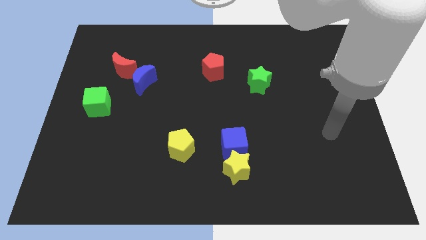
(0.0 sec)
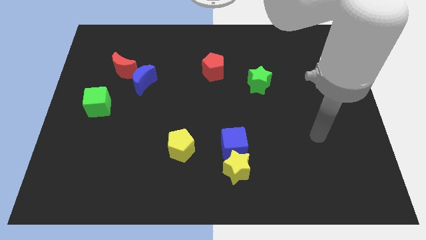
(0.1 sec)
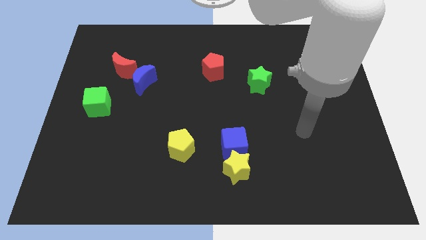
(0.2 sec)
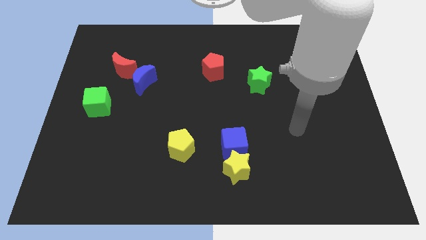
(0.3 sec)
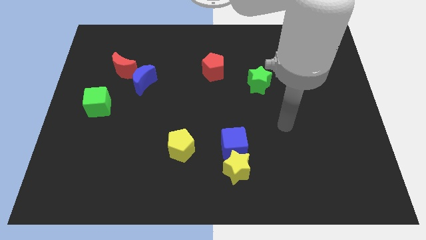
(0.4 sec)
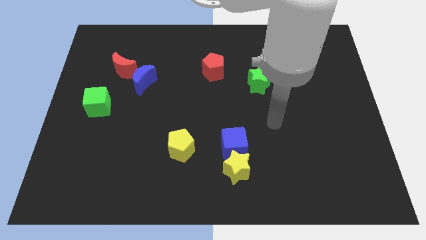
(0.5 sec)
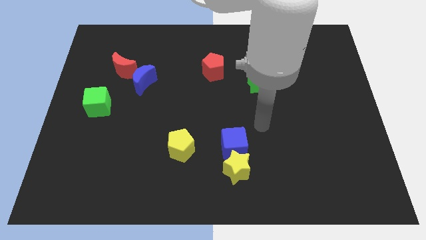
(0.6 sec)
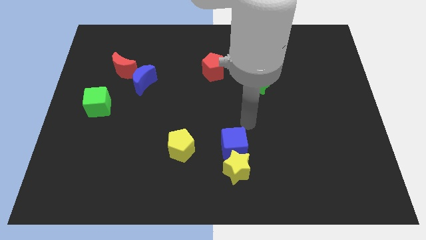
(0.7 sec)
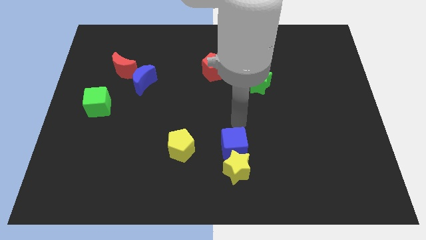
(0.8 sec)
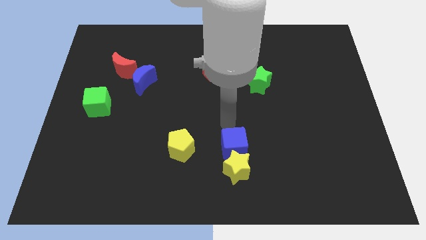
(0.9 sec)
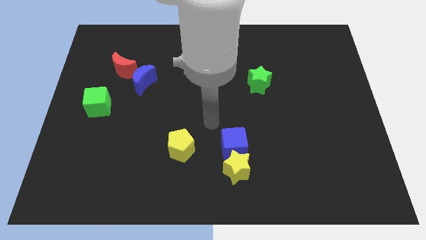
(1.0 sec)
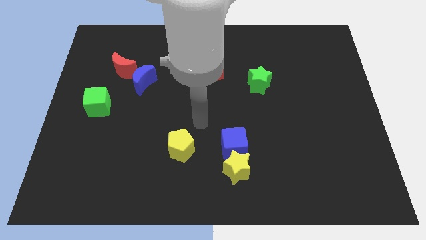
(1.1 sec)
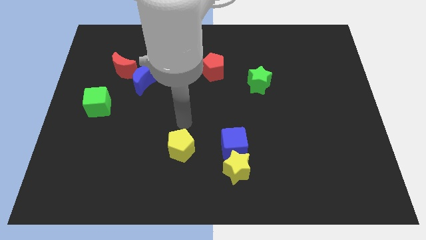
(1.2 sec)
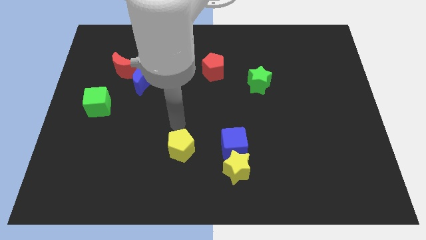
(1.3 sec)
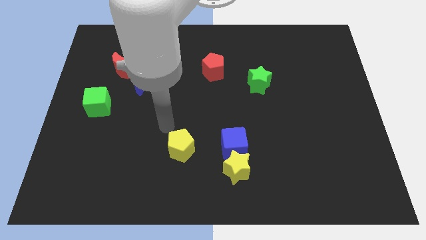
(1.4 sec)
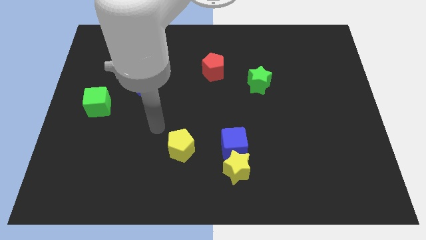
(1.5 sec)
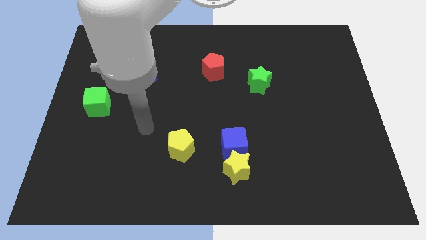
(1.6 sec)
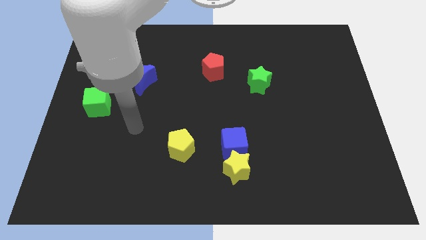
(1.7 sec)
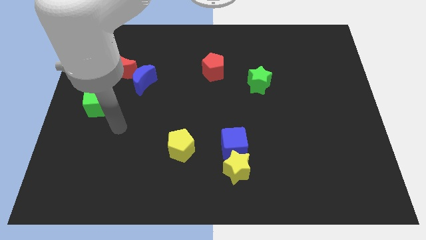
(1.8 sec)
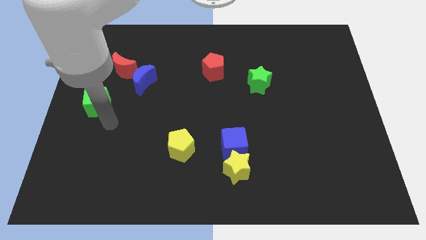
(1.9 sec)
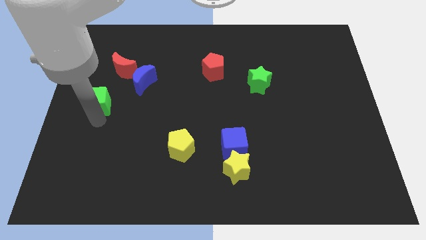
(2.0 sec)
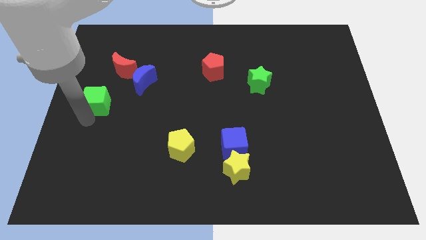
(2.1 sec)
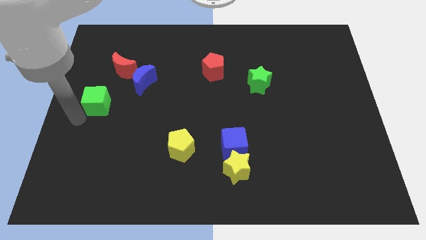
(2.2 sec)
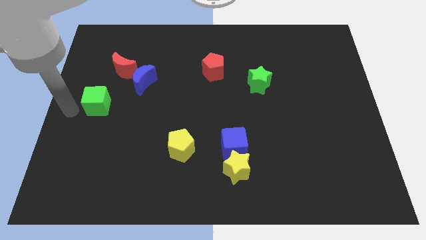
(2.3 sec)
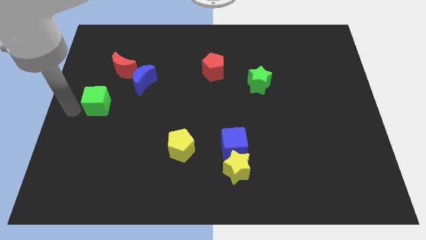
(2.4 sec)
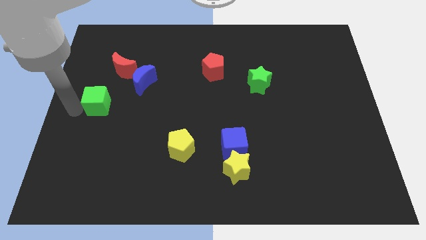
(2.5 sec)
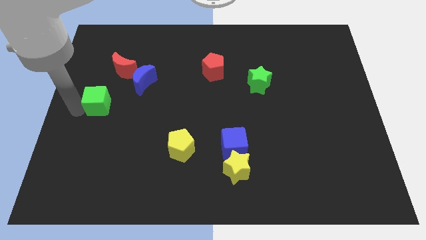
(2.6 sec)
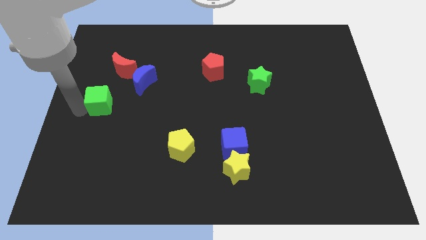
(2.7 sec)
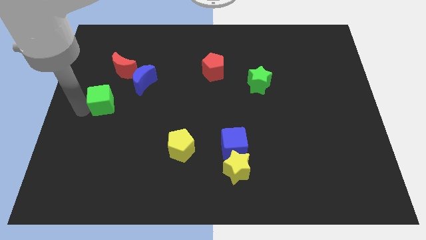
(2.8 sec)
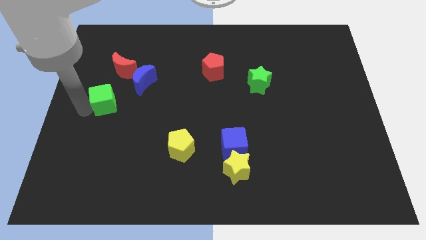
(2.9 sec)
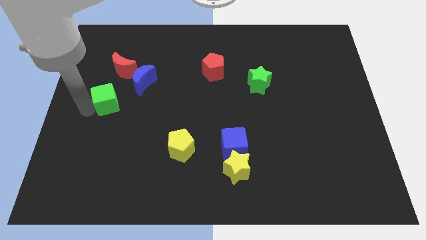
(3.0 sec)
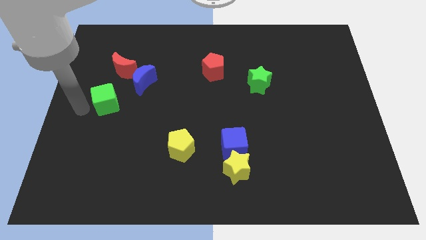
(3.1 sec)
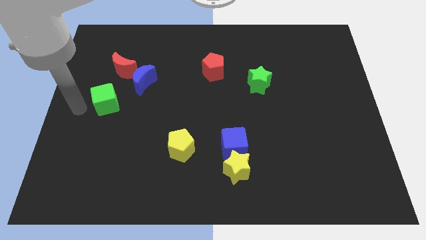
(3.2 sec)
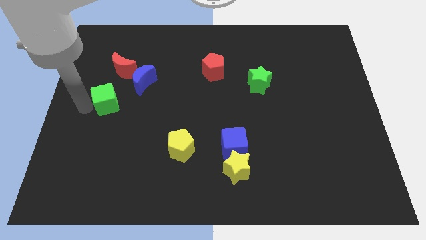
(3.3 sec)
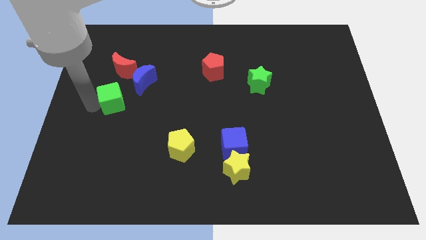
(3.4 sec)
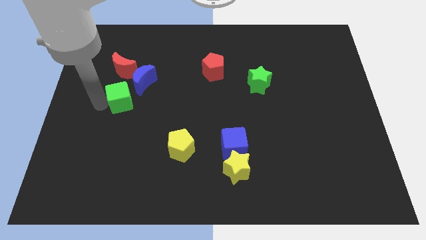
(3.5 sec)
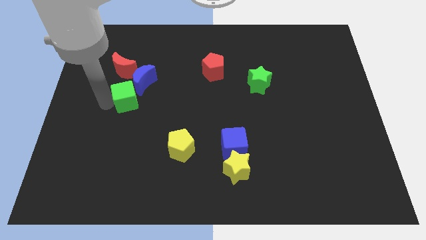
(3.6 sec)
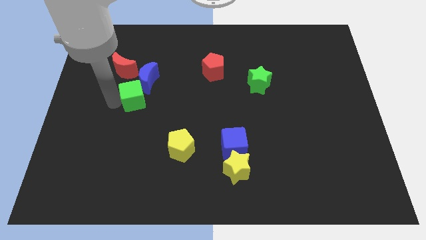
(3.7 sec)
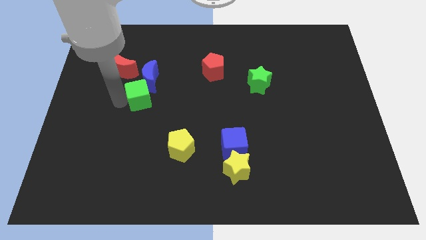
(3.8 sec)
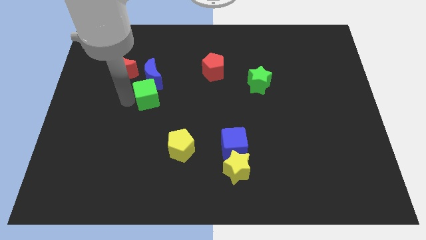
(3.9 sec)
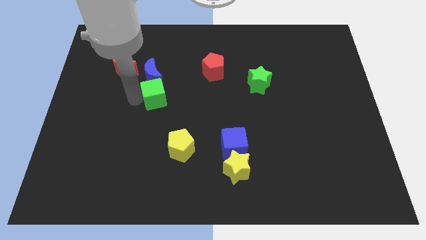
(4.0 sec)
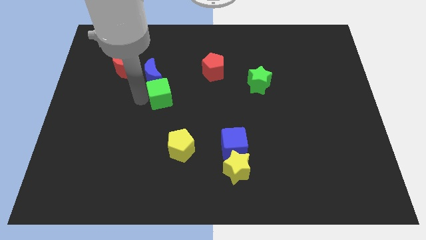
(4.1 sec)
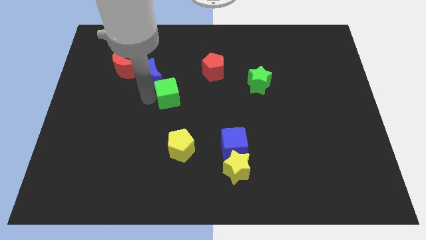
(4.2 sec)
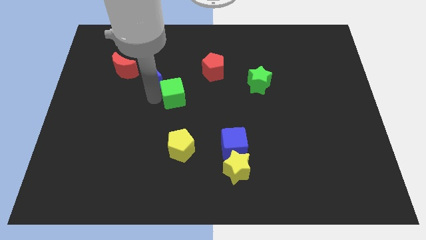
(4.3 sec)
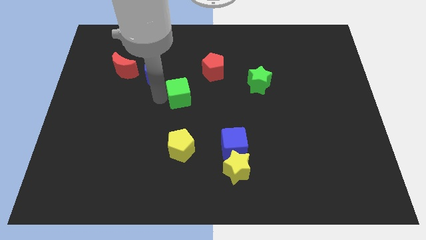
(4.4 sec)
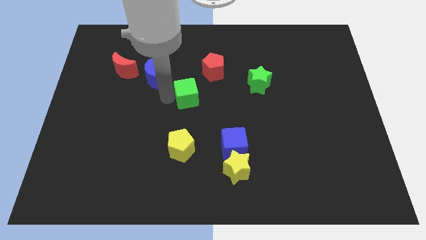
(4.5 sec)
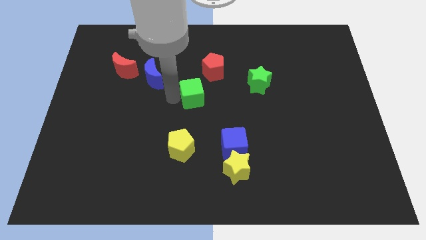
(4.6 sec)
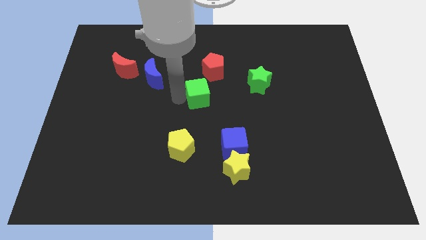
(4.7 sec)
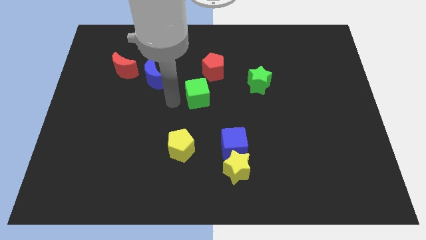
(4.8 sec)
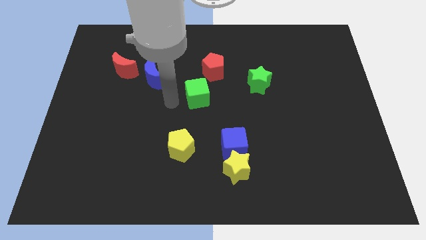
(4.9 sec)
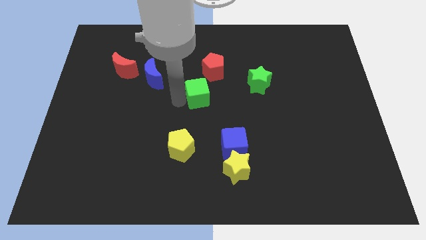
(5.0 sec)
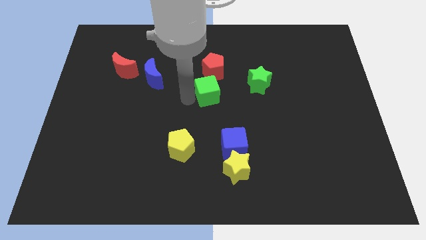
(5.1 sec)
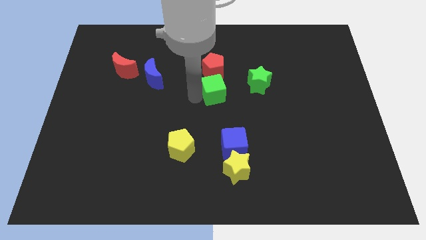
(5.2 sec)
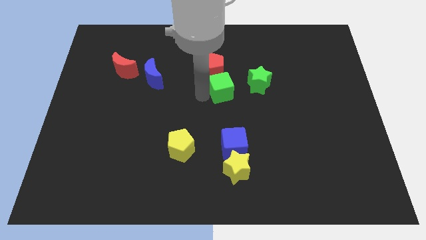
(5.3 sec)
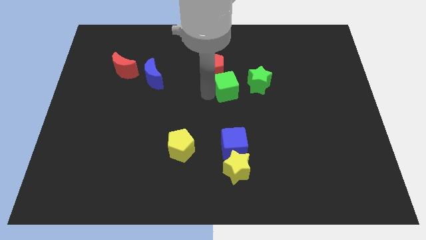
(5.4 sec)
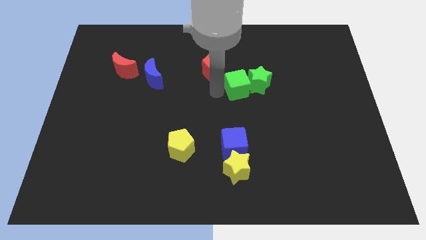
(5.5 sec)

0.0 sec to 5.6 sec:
push the green cube towards the green star

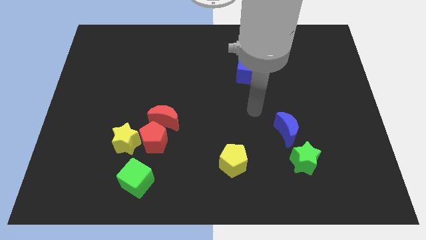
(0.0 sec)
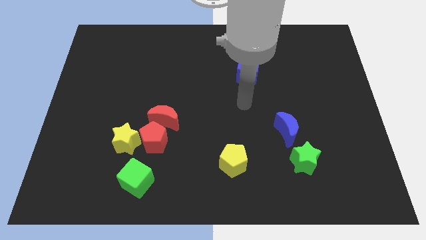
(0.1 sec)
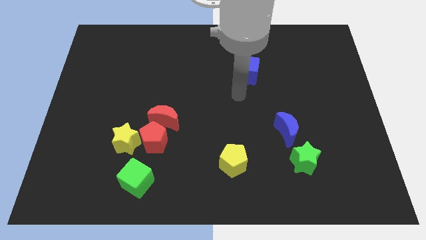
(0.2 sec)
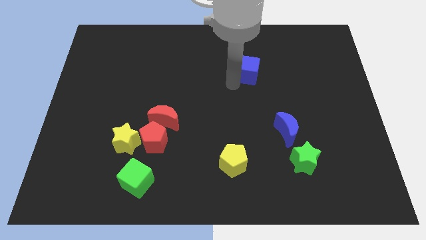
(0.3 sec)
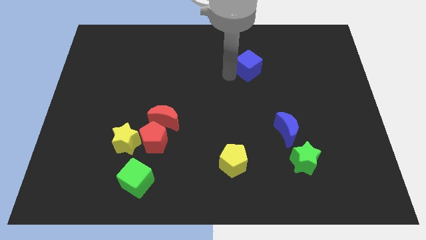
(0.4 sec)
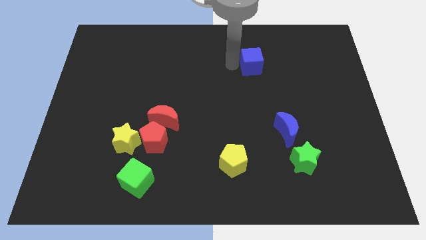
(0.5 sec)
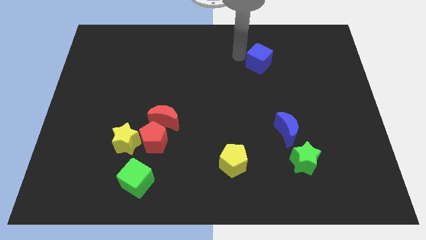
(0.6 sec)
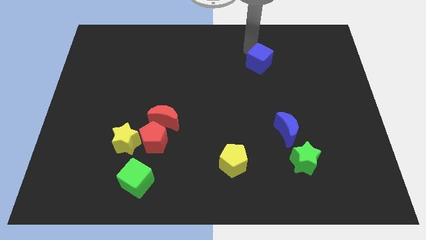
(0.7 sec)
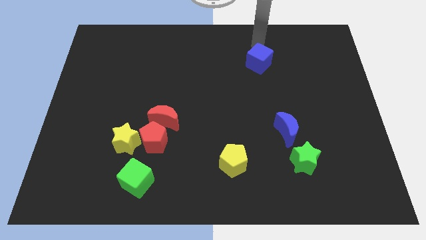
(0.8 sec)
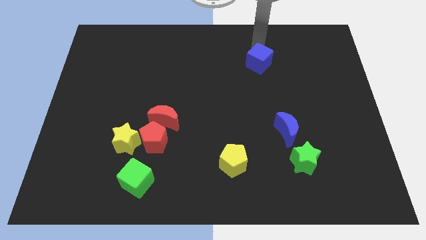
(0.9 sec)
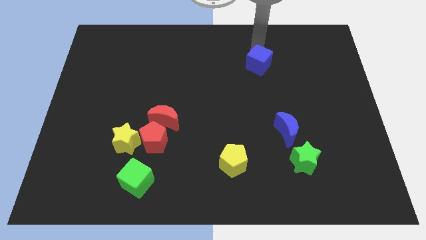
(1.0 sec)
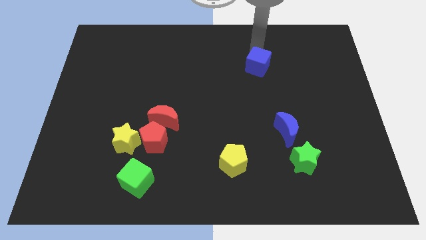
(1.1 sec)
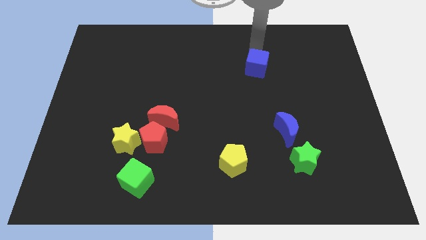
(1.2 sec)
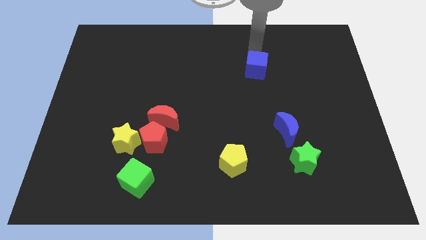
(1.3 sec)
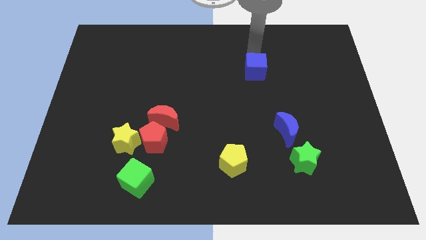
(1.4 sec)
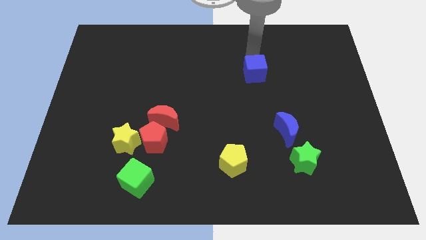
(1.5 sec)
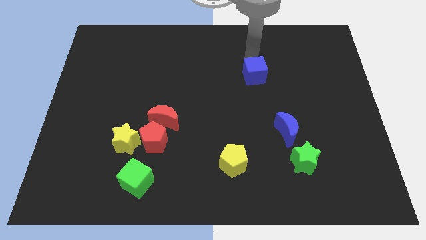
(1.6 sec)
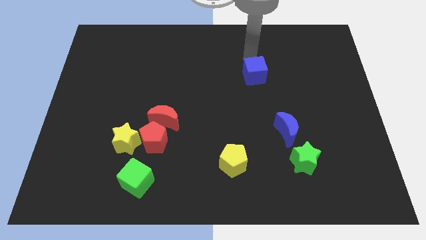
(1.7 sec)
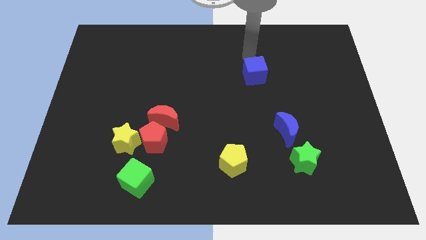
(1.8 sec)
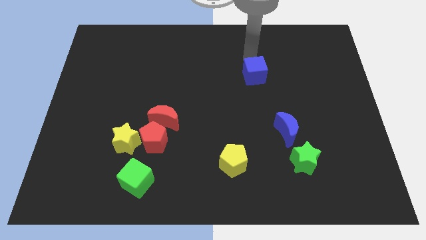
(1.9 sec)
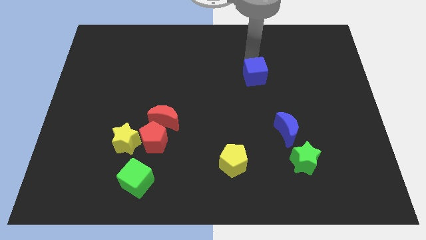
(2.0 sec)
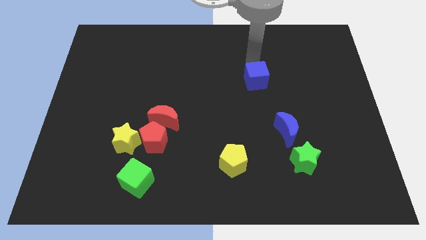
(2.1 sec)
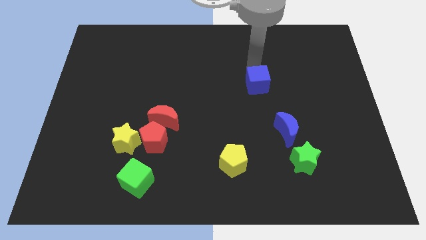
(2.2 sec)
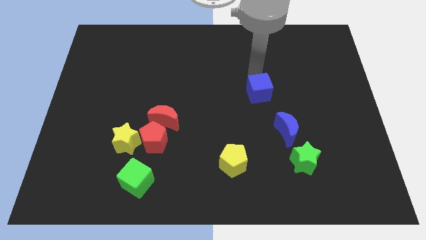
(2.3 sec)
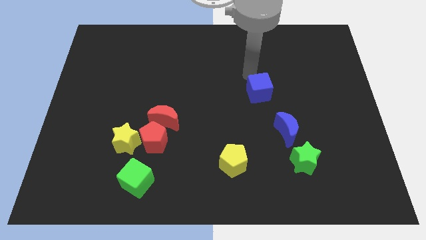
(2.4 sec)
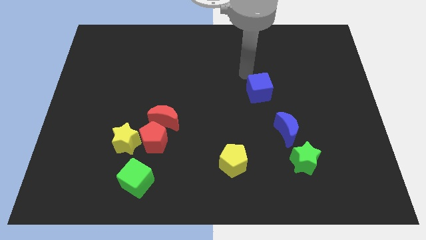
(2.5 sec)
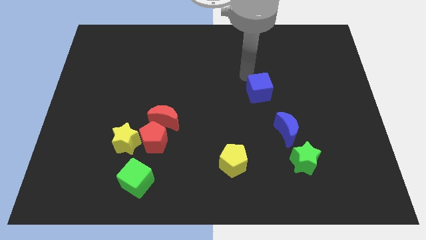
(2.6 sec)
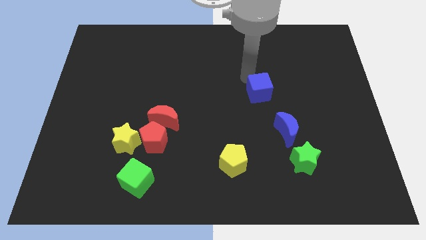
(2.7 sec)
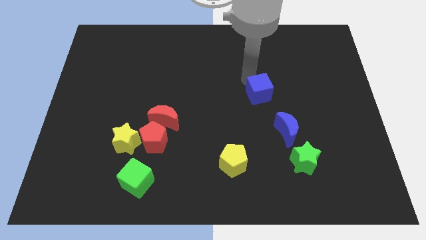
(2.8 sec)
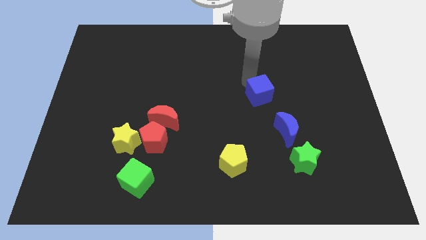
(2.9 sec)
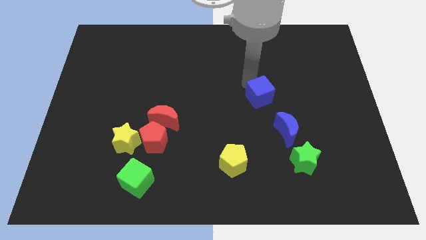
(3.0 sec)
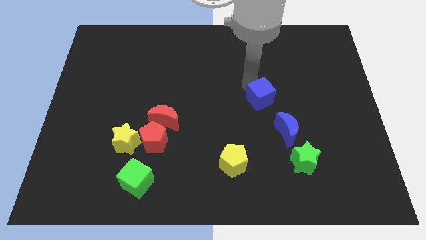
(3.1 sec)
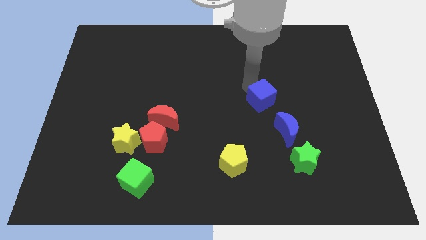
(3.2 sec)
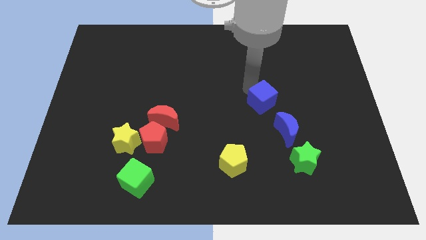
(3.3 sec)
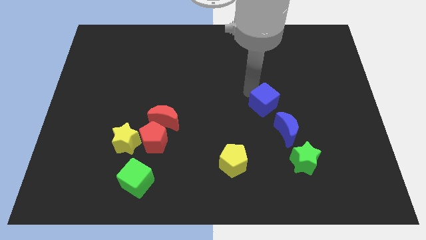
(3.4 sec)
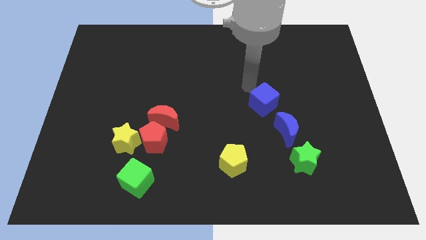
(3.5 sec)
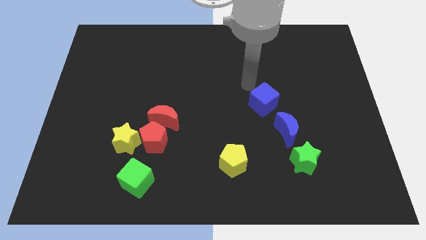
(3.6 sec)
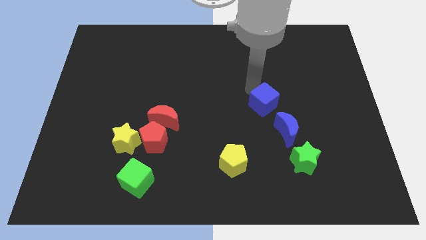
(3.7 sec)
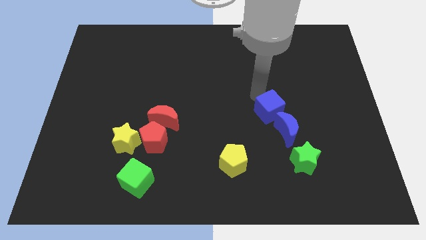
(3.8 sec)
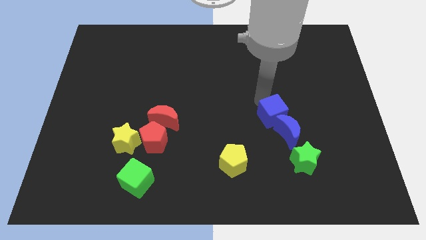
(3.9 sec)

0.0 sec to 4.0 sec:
slide the blue cube towards the blue moon
